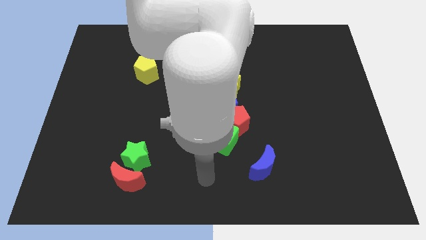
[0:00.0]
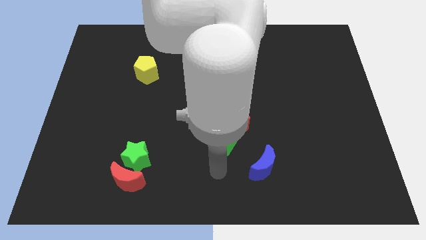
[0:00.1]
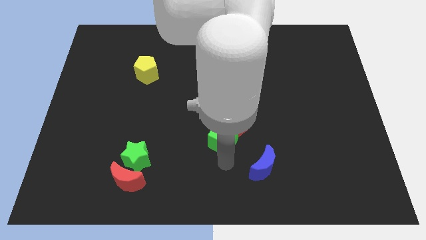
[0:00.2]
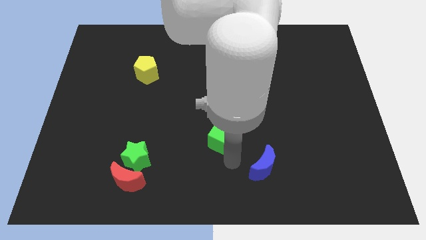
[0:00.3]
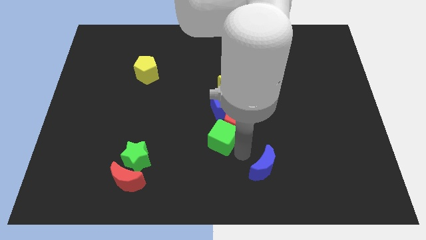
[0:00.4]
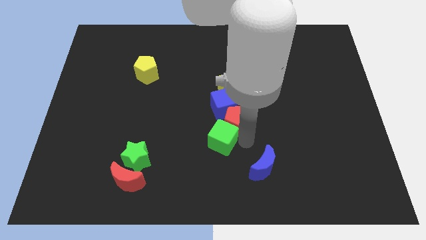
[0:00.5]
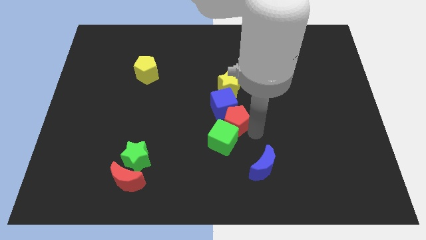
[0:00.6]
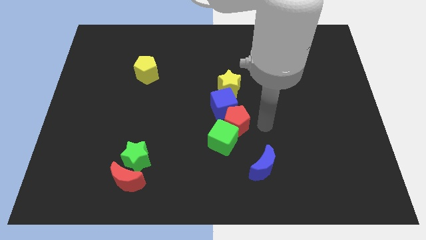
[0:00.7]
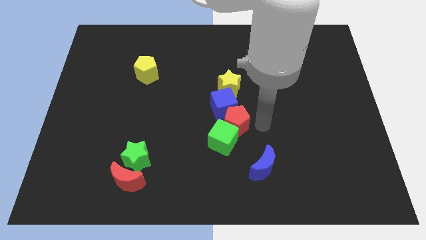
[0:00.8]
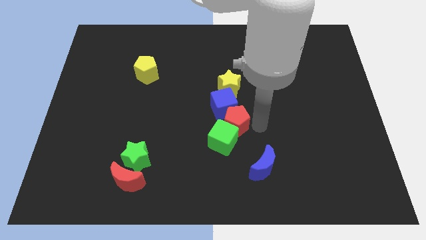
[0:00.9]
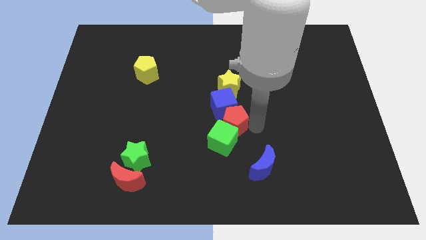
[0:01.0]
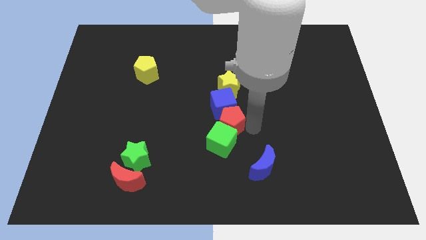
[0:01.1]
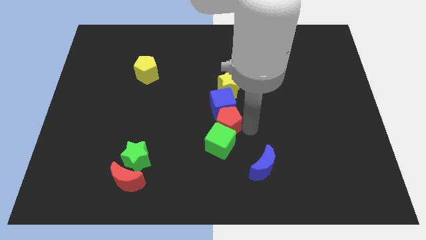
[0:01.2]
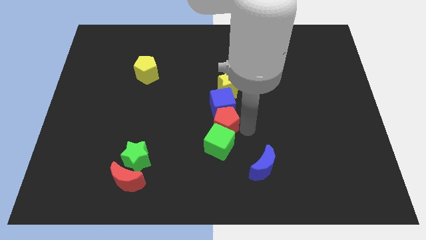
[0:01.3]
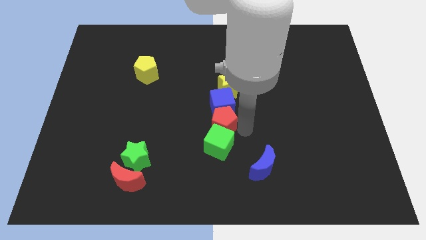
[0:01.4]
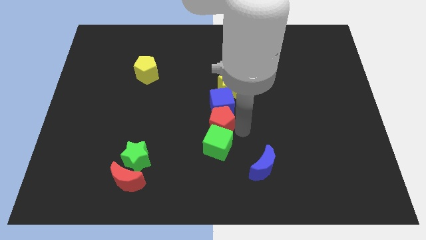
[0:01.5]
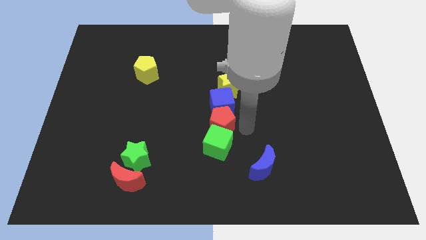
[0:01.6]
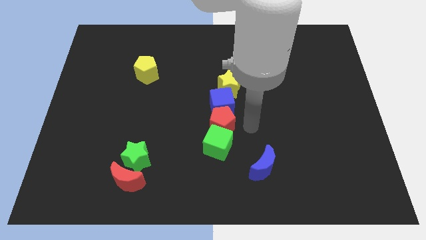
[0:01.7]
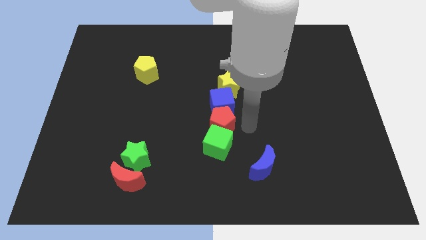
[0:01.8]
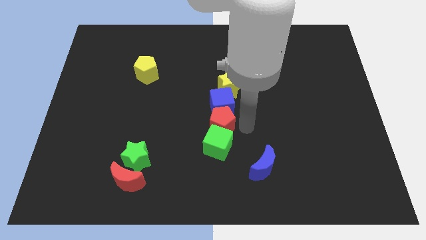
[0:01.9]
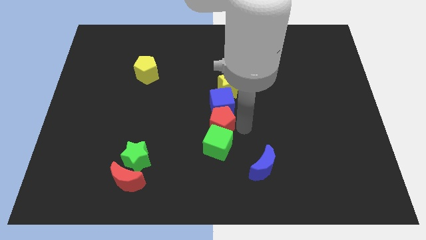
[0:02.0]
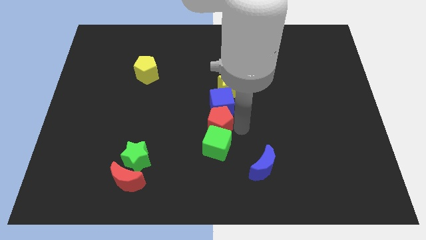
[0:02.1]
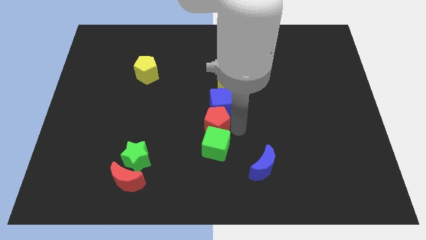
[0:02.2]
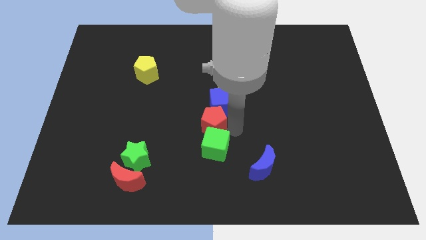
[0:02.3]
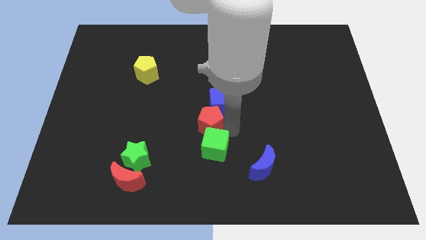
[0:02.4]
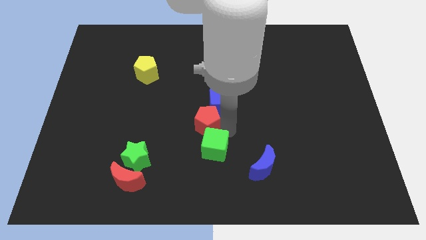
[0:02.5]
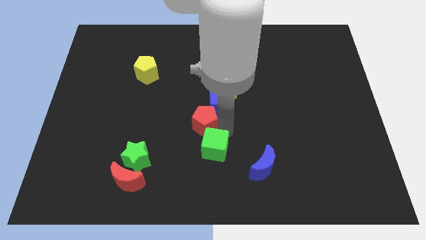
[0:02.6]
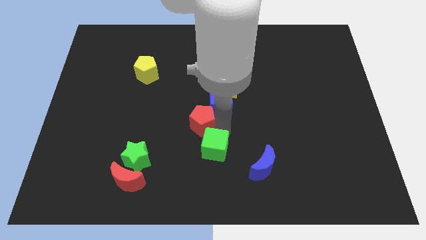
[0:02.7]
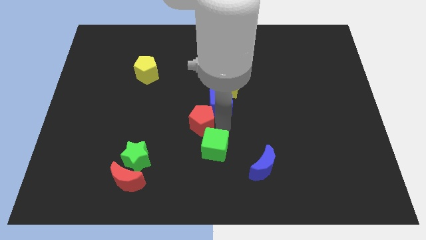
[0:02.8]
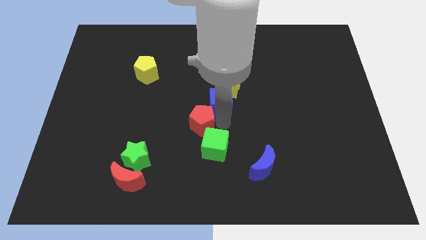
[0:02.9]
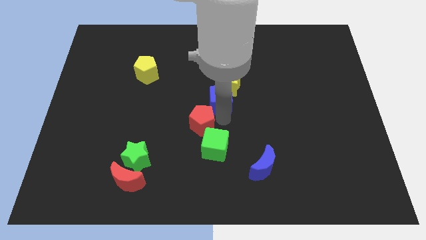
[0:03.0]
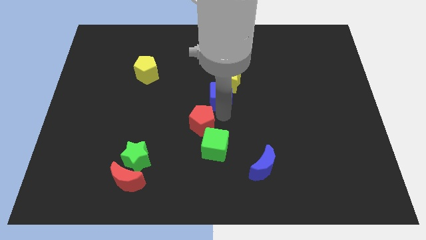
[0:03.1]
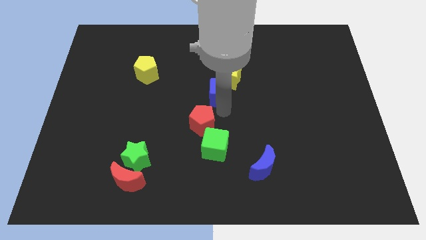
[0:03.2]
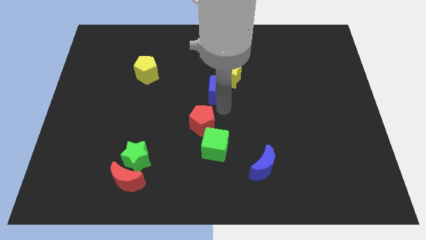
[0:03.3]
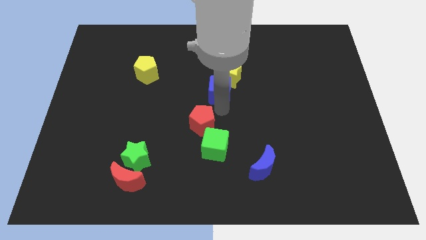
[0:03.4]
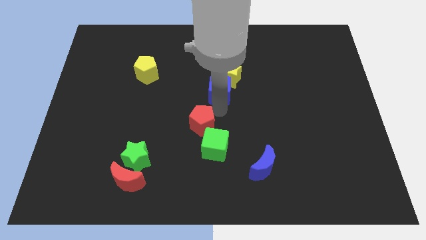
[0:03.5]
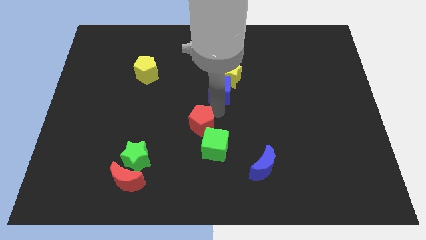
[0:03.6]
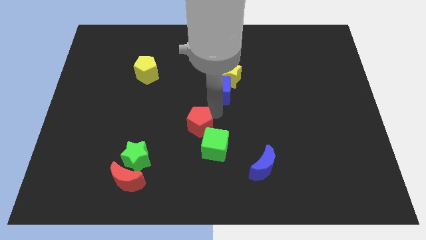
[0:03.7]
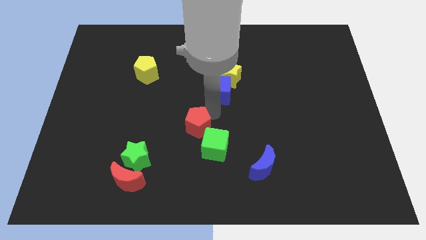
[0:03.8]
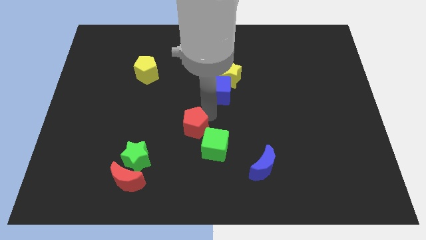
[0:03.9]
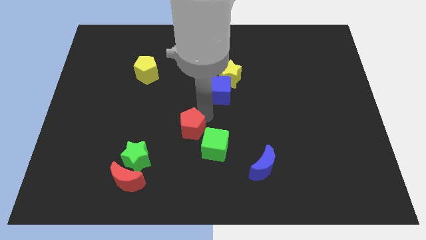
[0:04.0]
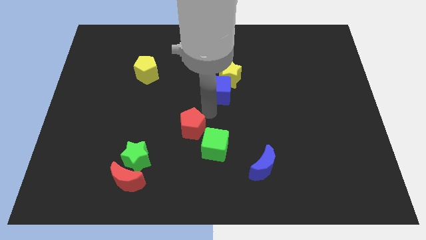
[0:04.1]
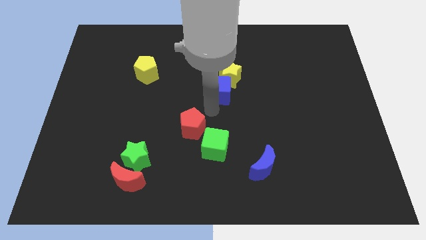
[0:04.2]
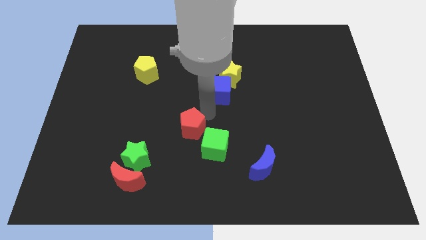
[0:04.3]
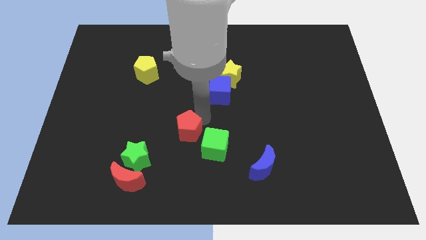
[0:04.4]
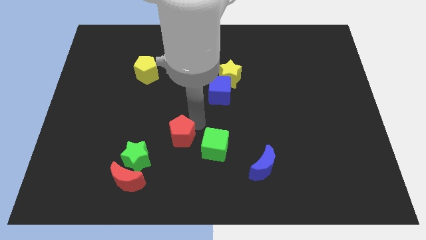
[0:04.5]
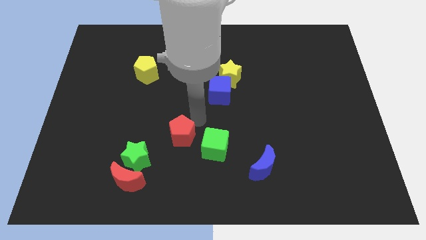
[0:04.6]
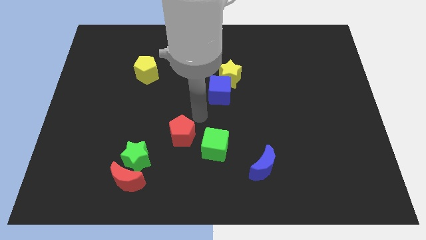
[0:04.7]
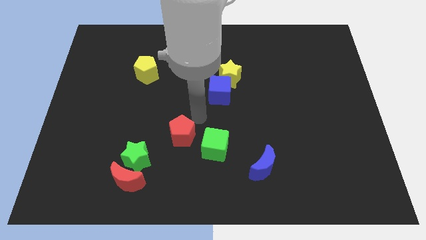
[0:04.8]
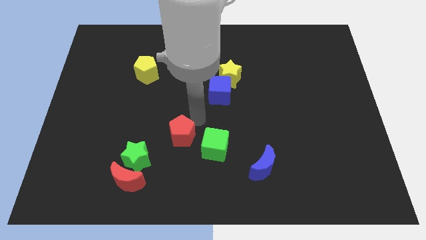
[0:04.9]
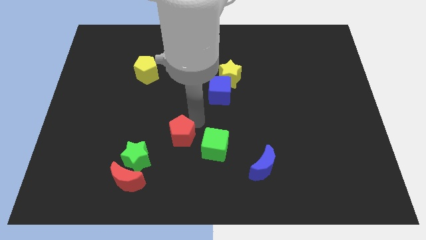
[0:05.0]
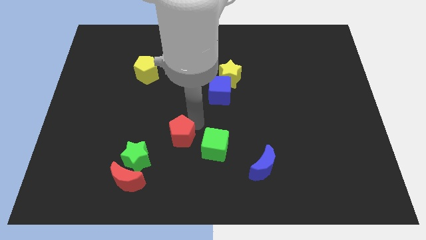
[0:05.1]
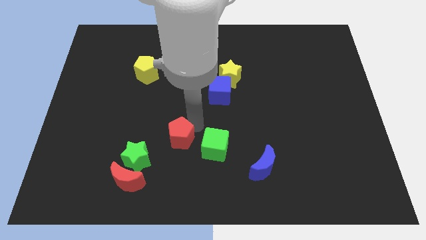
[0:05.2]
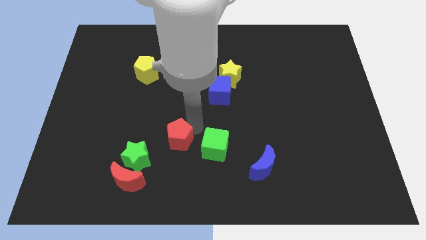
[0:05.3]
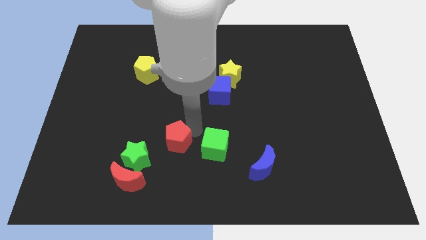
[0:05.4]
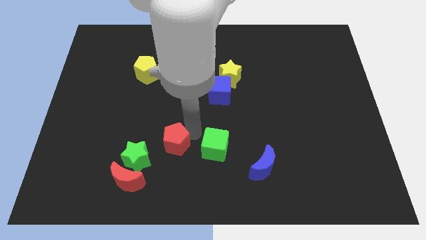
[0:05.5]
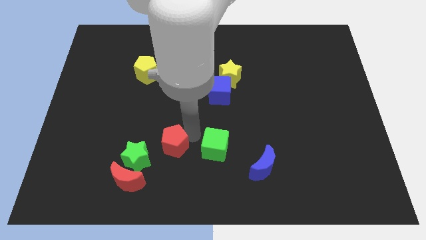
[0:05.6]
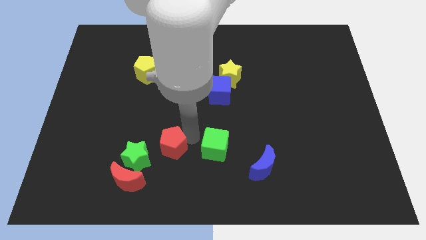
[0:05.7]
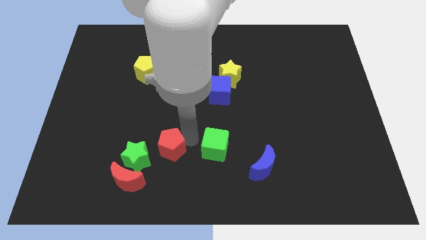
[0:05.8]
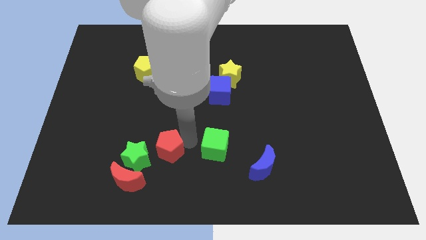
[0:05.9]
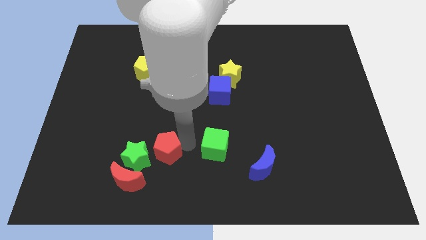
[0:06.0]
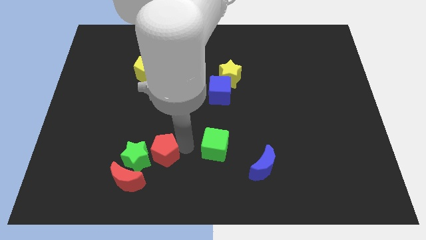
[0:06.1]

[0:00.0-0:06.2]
put the red pentagon next to the green star
